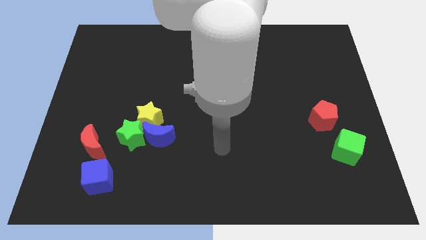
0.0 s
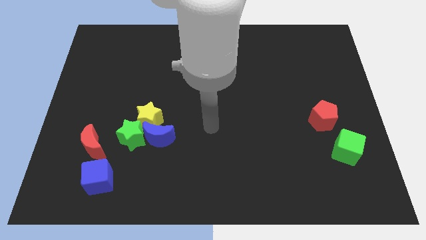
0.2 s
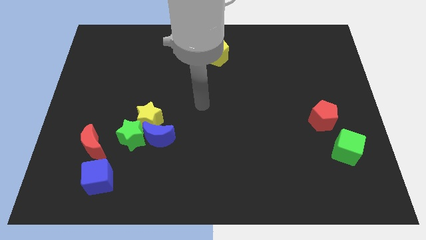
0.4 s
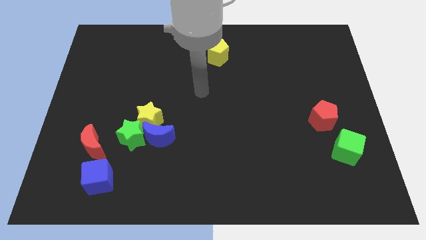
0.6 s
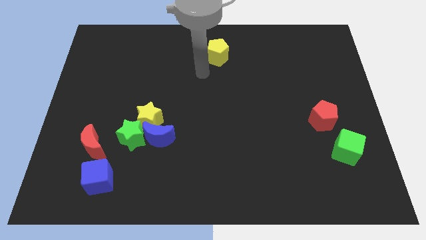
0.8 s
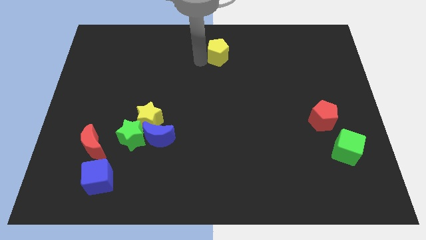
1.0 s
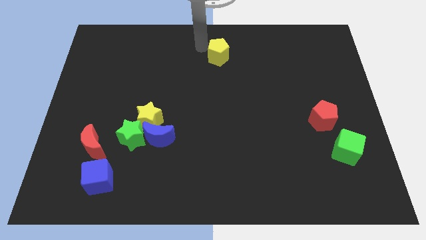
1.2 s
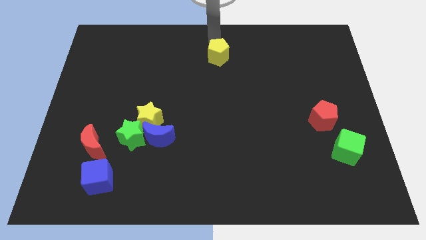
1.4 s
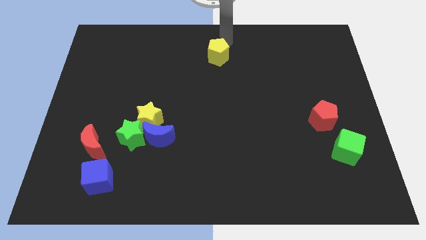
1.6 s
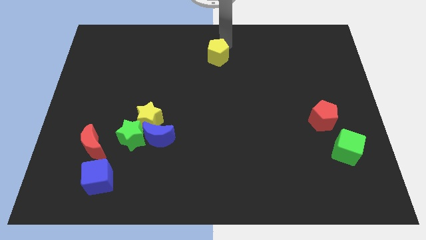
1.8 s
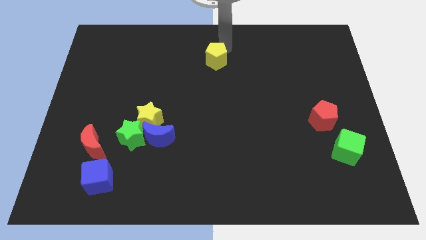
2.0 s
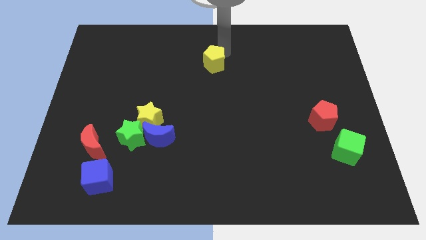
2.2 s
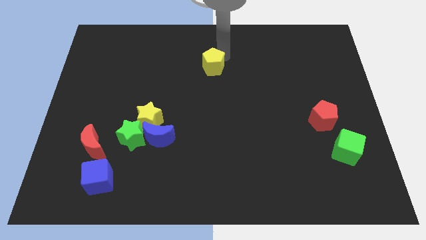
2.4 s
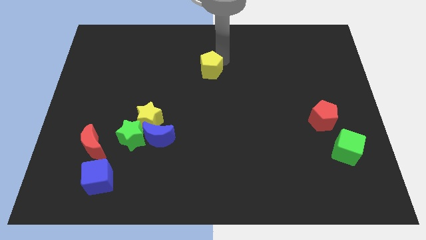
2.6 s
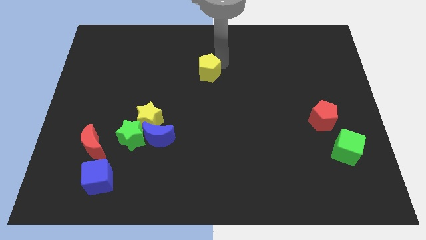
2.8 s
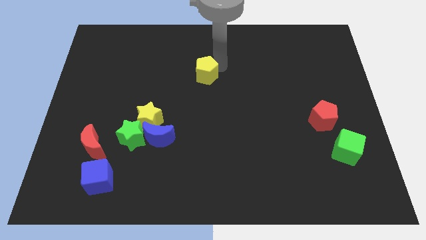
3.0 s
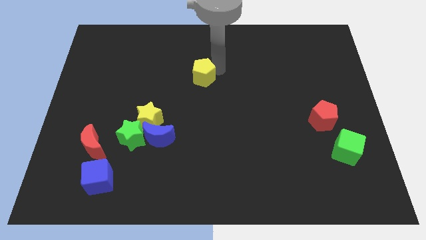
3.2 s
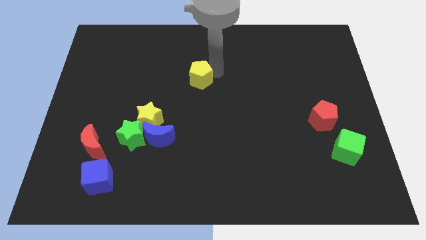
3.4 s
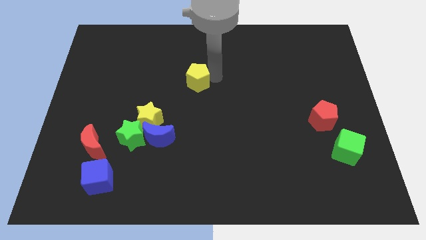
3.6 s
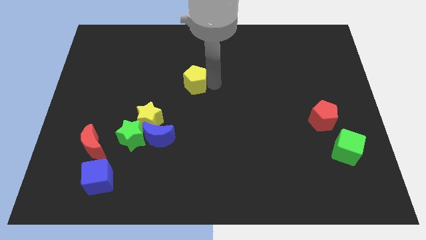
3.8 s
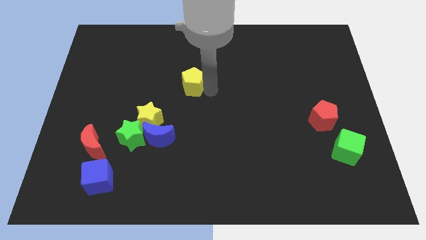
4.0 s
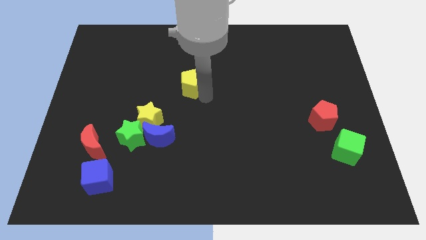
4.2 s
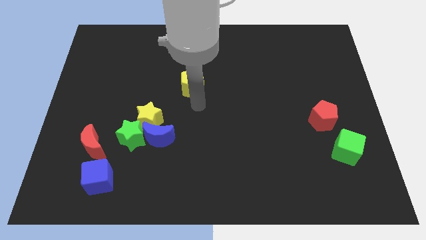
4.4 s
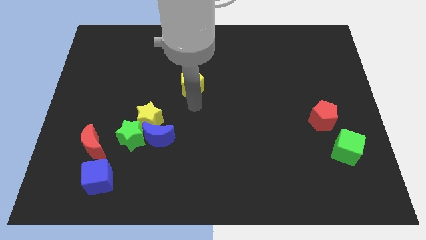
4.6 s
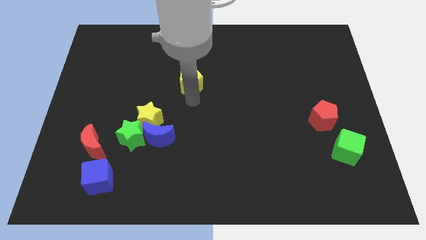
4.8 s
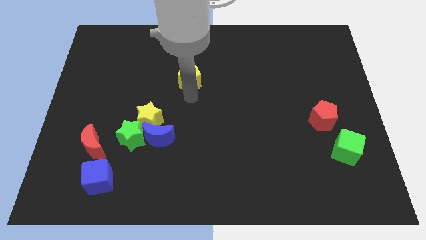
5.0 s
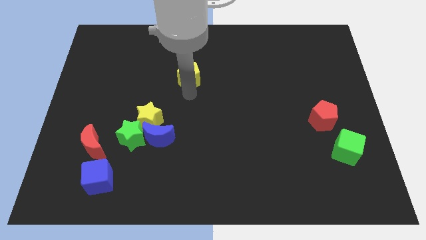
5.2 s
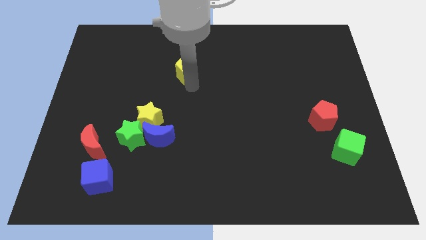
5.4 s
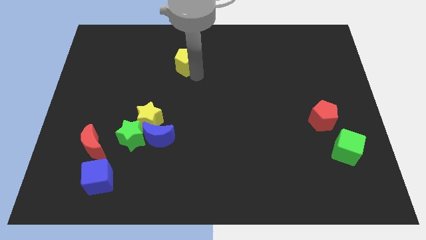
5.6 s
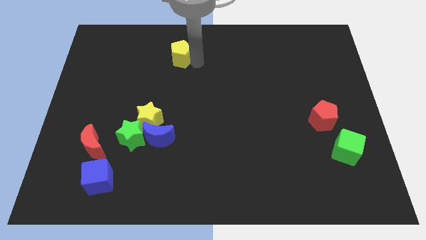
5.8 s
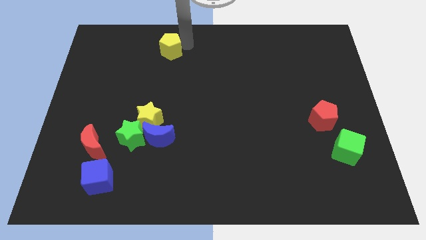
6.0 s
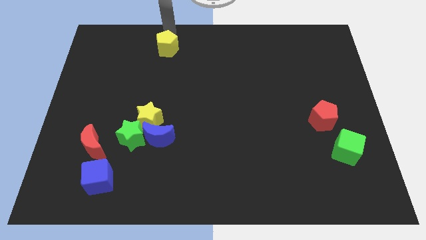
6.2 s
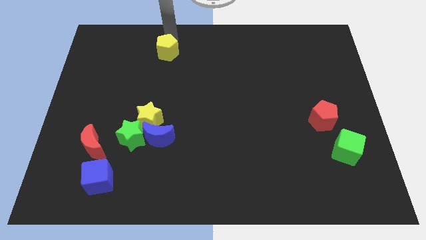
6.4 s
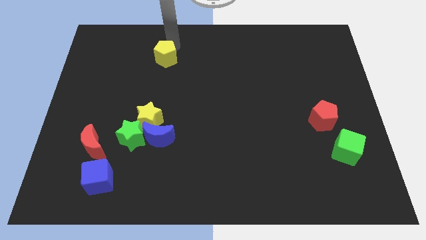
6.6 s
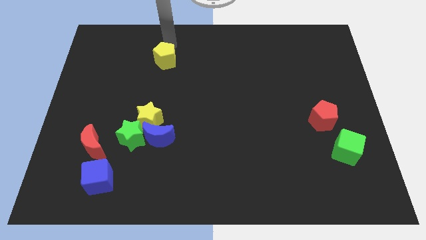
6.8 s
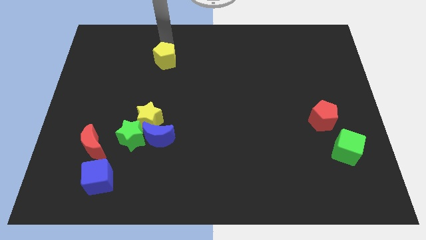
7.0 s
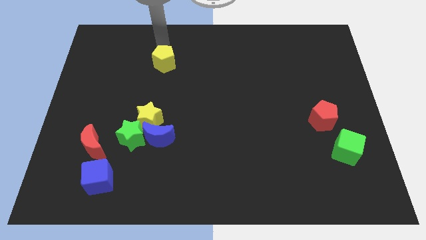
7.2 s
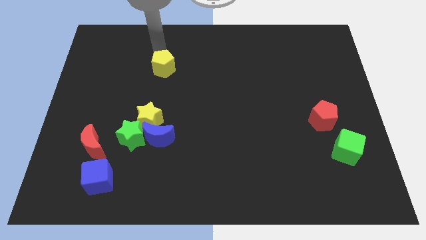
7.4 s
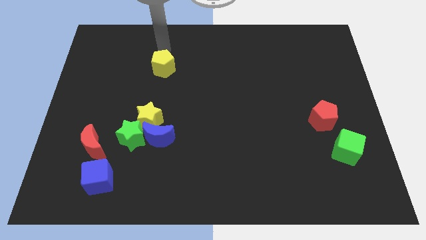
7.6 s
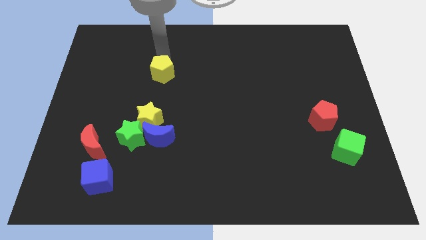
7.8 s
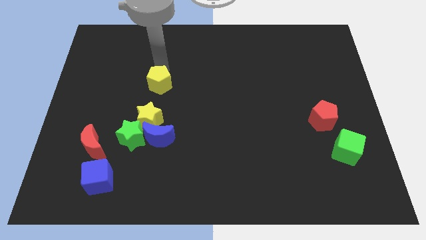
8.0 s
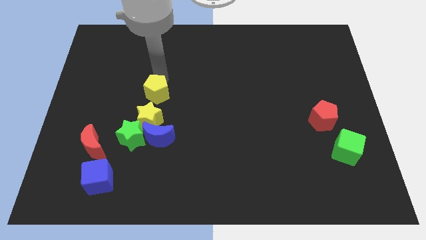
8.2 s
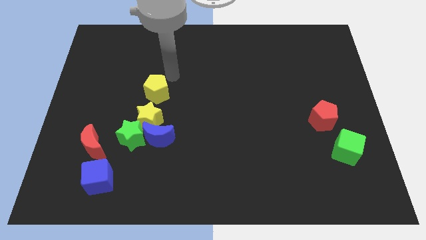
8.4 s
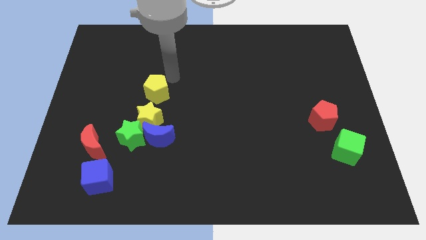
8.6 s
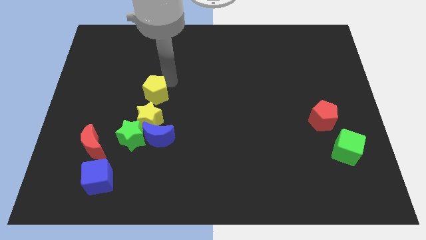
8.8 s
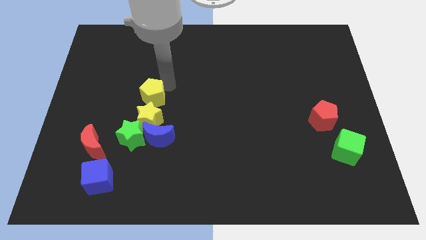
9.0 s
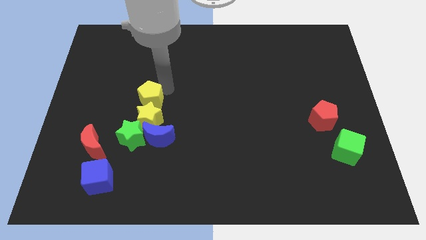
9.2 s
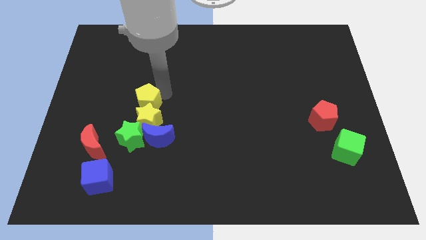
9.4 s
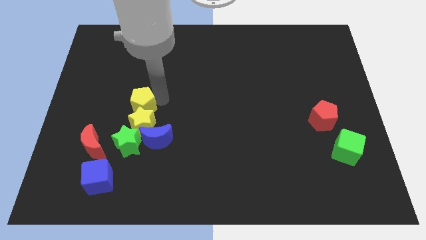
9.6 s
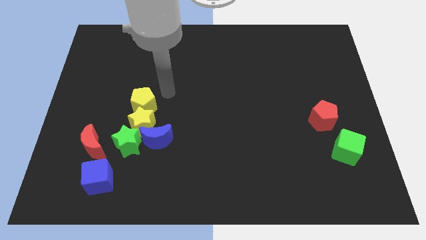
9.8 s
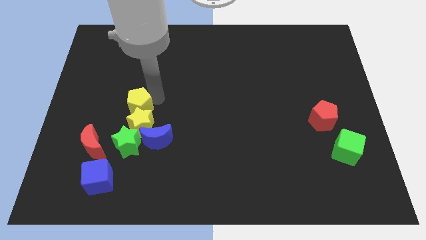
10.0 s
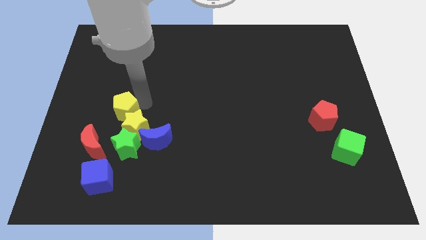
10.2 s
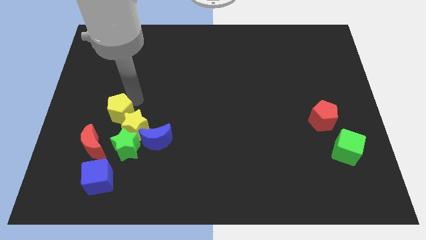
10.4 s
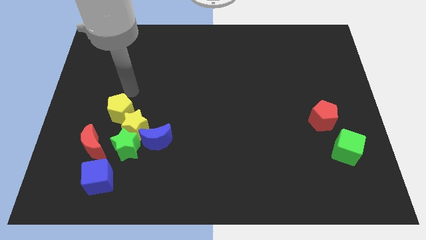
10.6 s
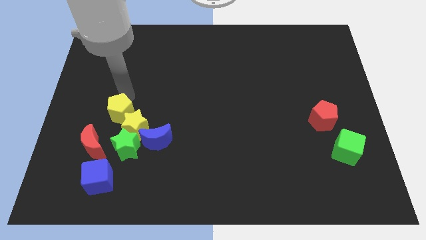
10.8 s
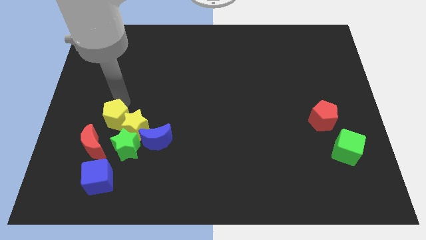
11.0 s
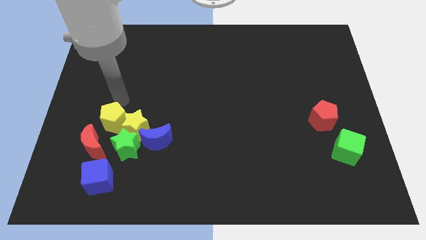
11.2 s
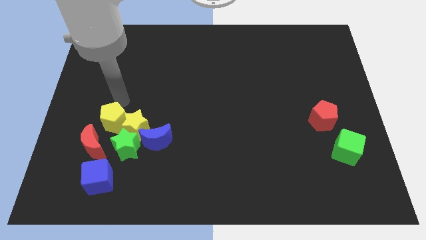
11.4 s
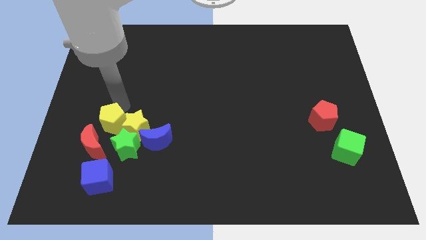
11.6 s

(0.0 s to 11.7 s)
push the yellow pentagon to the bottom left side of the yellow star

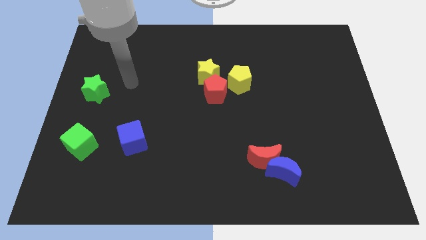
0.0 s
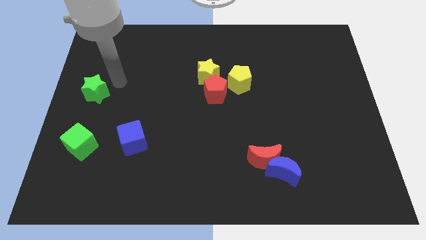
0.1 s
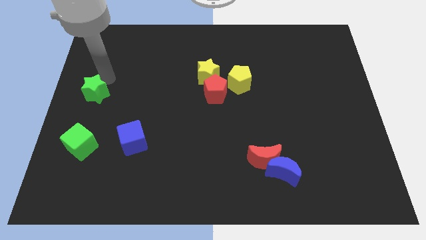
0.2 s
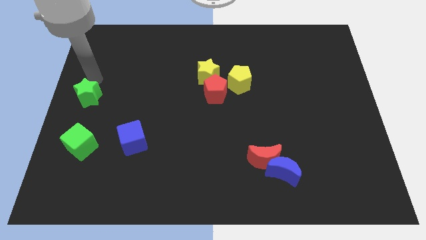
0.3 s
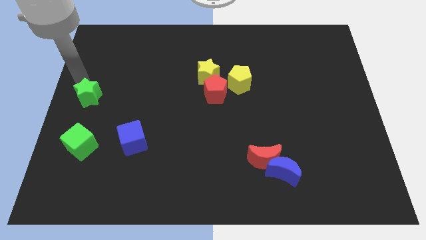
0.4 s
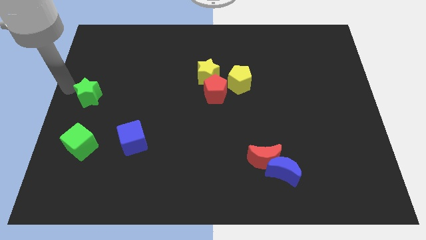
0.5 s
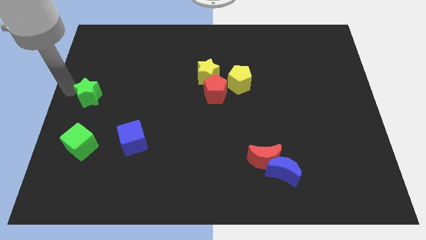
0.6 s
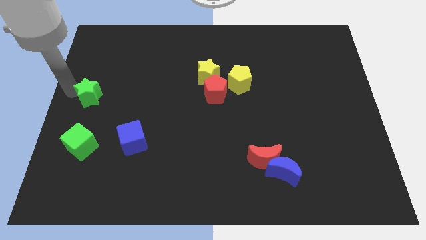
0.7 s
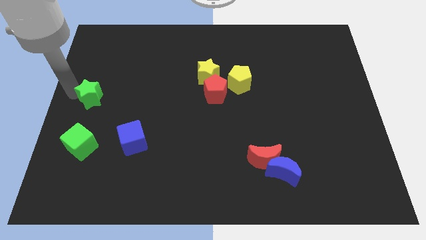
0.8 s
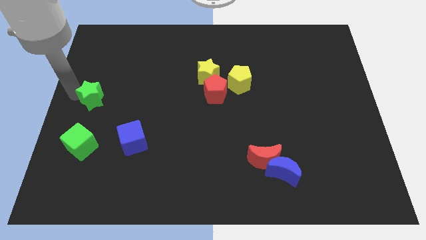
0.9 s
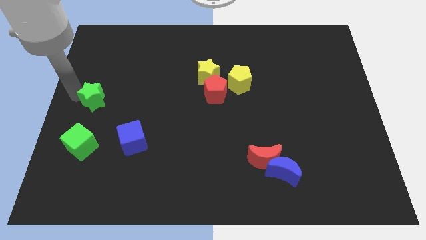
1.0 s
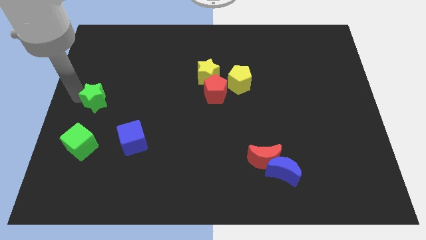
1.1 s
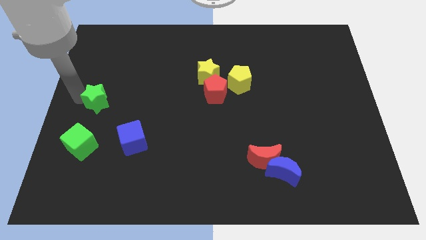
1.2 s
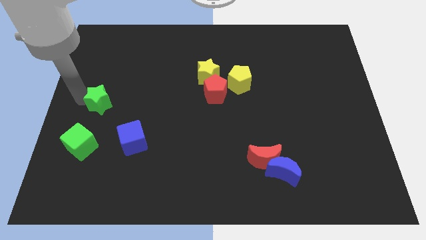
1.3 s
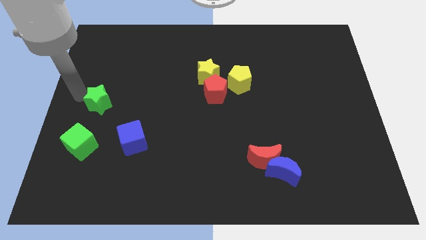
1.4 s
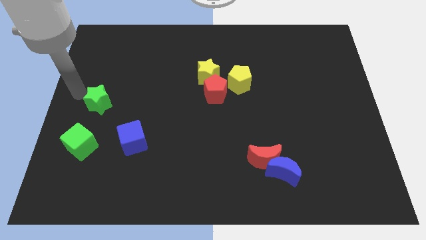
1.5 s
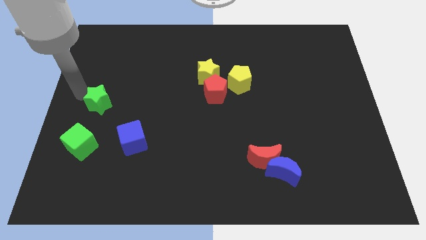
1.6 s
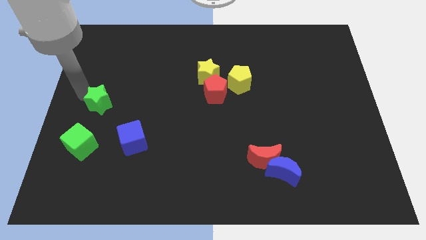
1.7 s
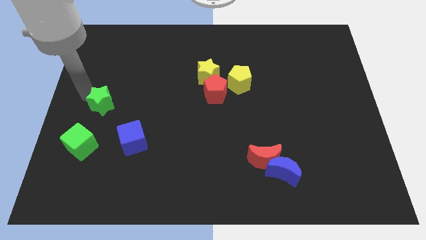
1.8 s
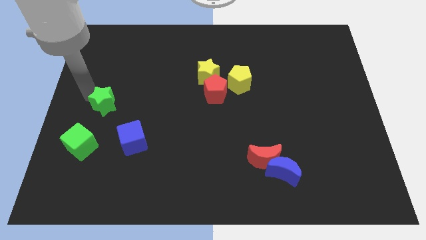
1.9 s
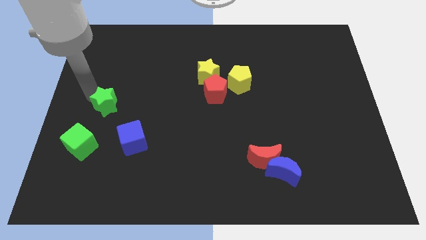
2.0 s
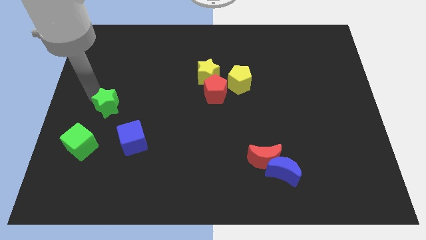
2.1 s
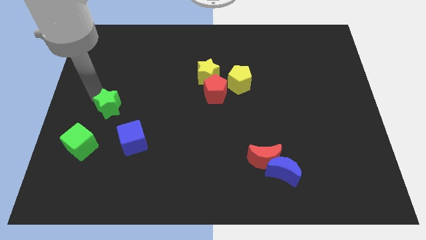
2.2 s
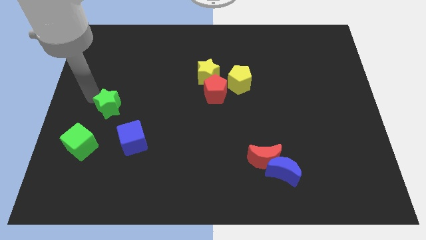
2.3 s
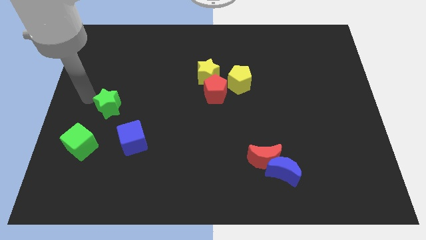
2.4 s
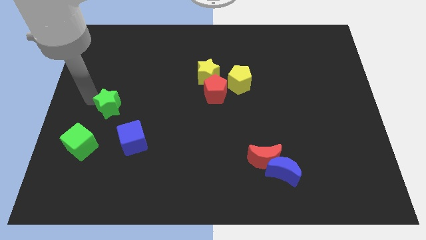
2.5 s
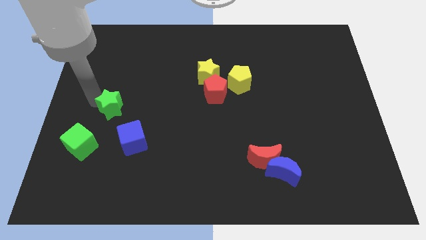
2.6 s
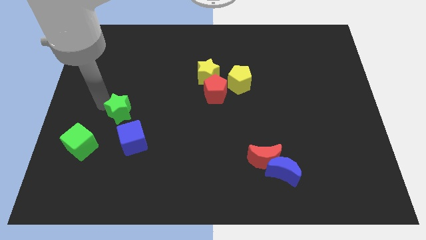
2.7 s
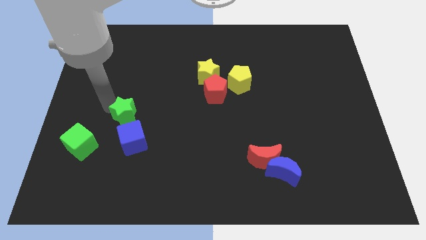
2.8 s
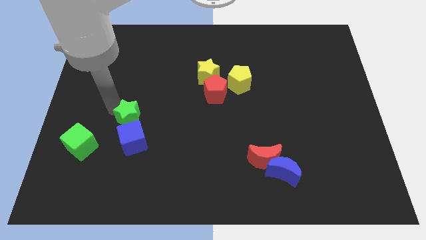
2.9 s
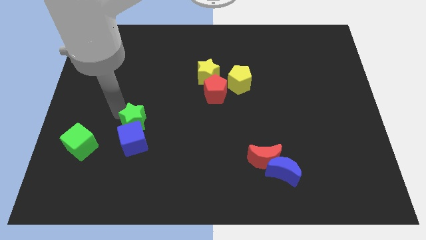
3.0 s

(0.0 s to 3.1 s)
move the green star to the top right of the blue cube
